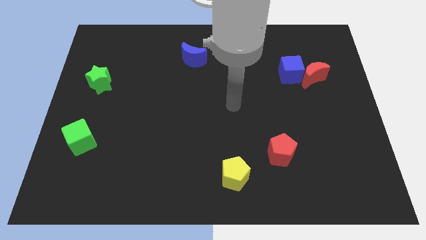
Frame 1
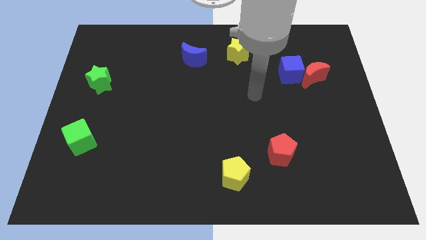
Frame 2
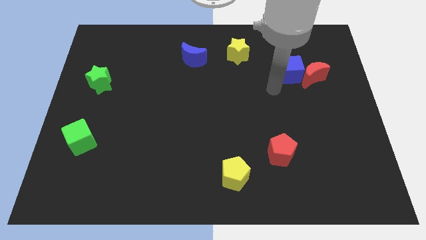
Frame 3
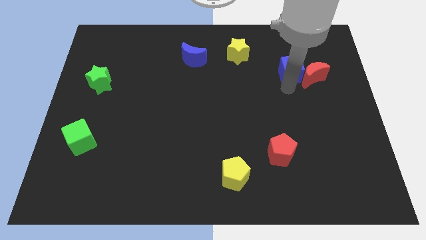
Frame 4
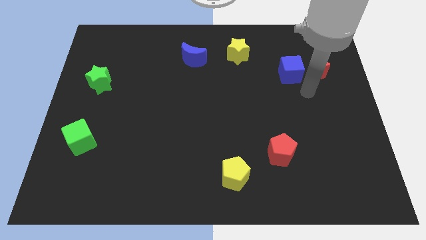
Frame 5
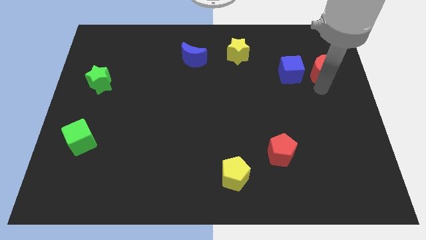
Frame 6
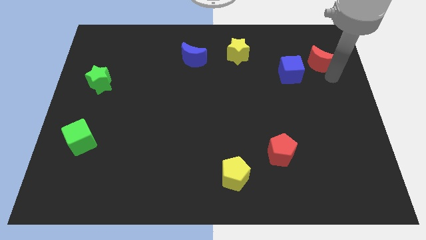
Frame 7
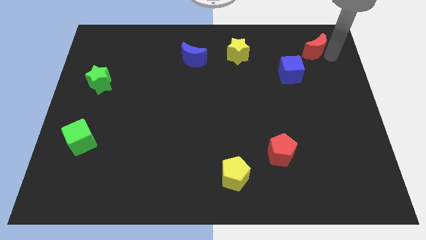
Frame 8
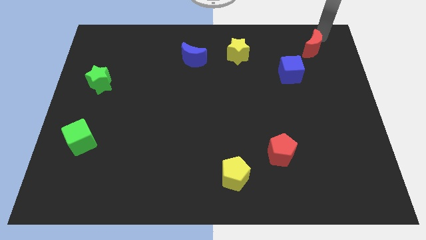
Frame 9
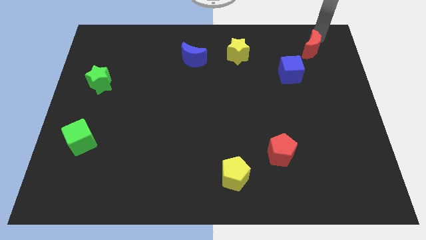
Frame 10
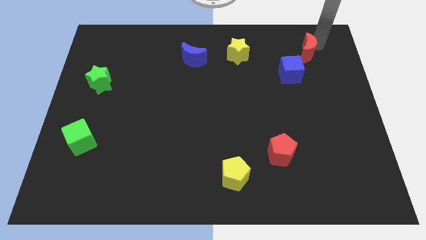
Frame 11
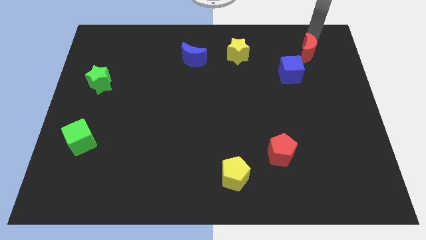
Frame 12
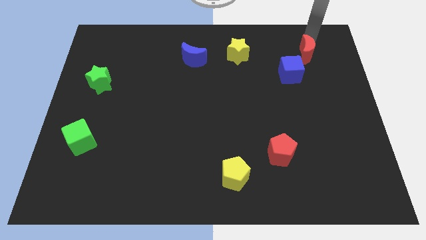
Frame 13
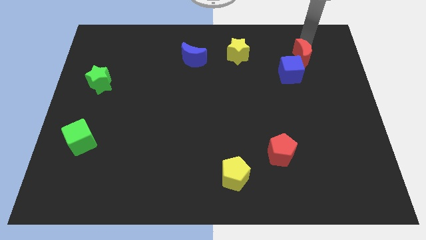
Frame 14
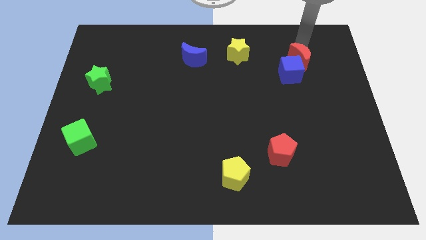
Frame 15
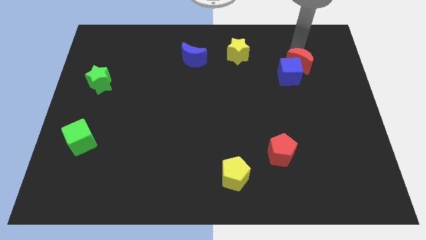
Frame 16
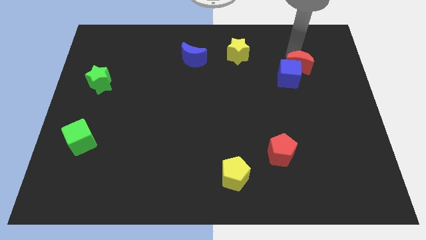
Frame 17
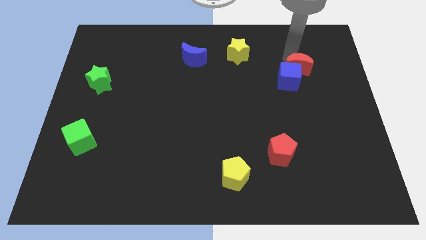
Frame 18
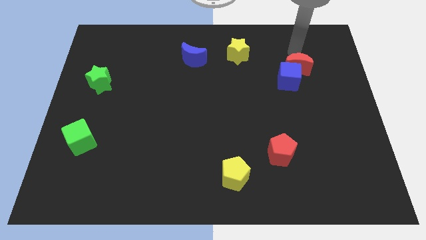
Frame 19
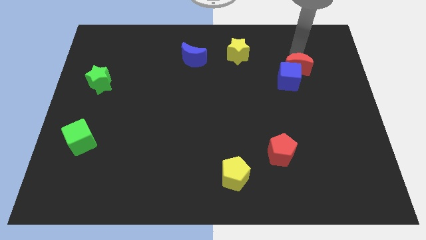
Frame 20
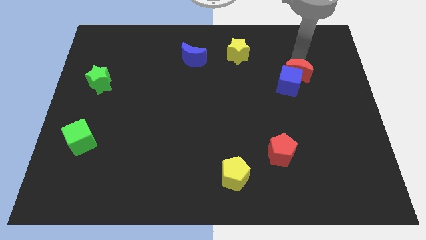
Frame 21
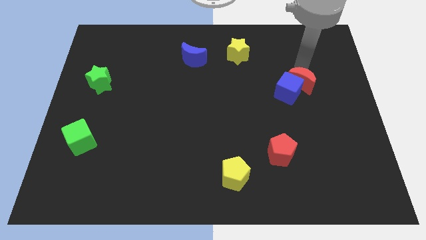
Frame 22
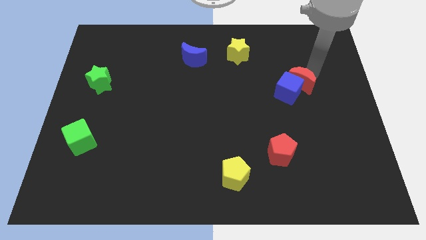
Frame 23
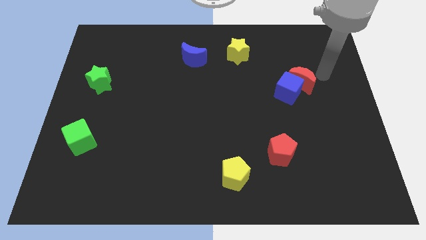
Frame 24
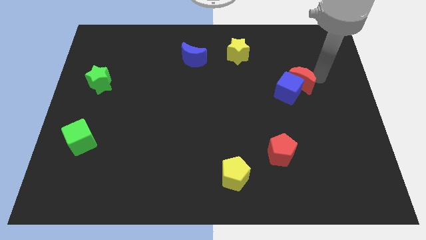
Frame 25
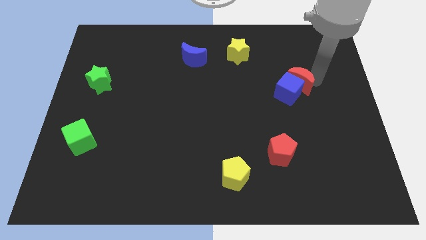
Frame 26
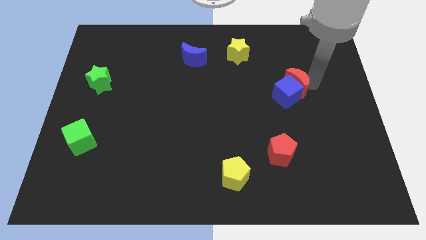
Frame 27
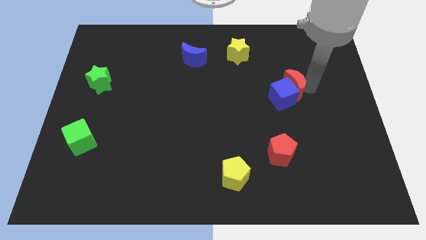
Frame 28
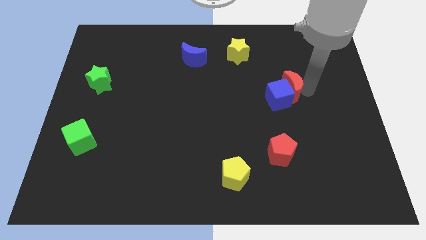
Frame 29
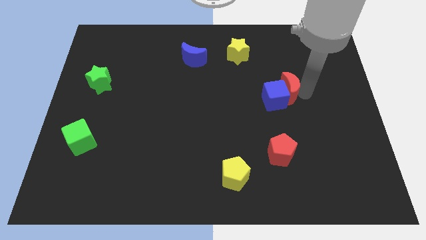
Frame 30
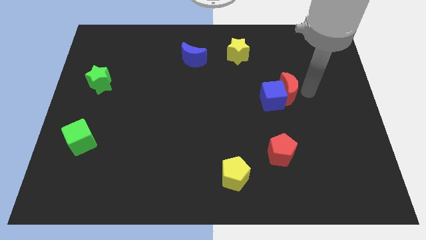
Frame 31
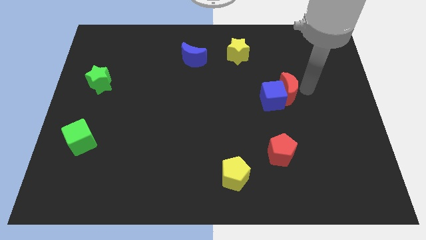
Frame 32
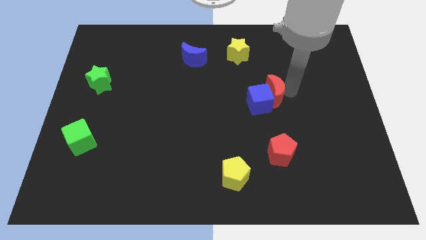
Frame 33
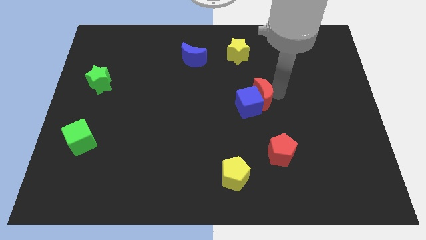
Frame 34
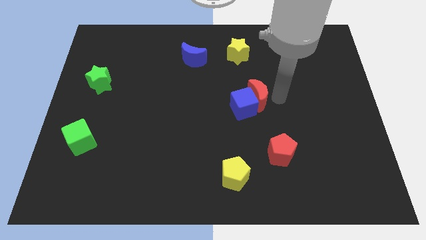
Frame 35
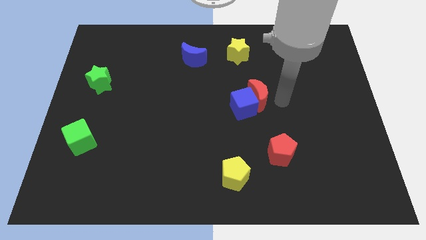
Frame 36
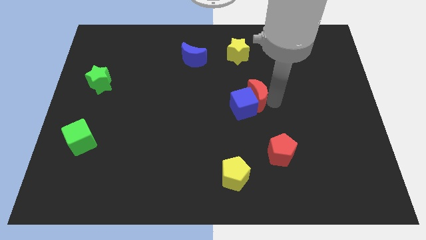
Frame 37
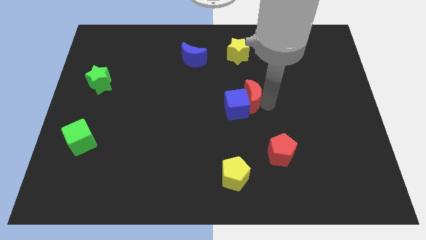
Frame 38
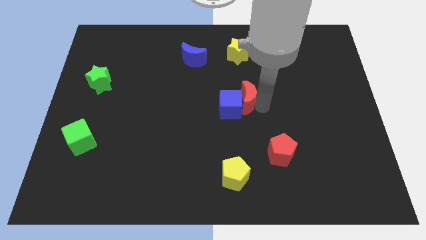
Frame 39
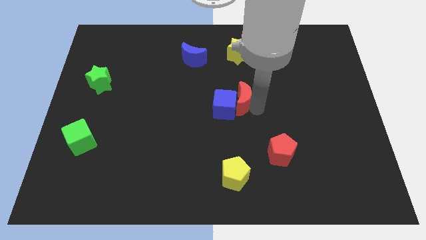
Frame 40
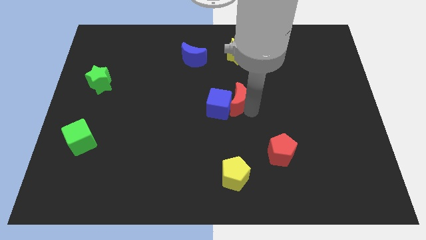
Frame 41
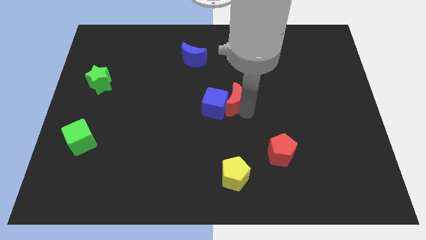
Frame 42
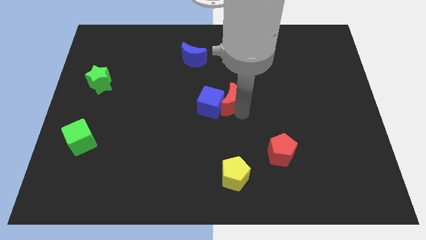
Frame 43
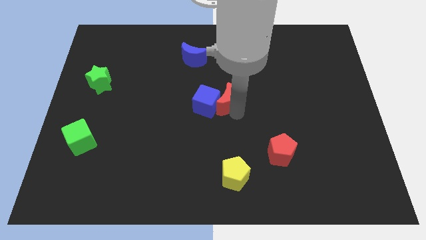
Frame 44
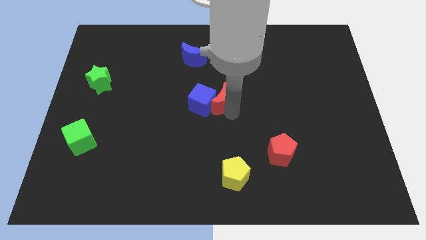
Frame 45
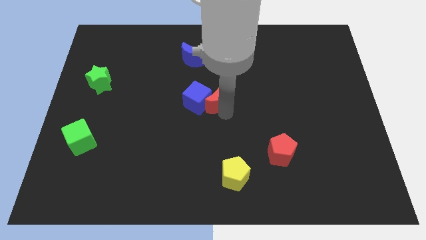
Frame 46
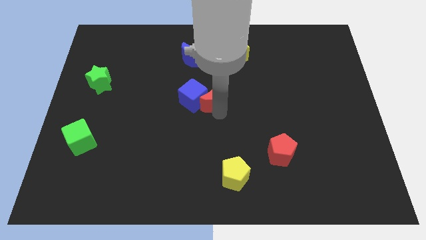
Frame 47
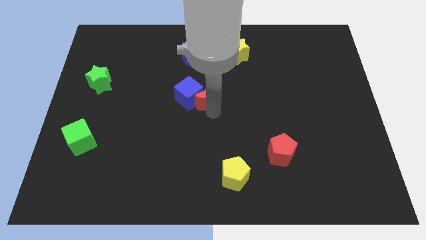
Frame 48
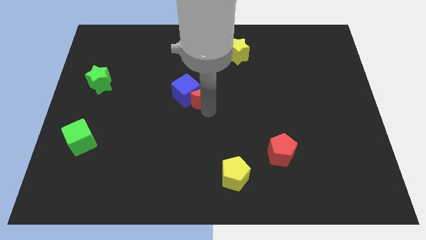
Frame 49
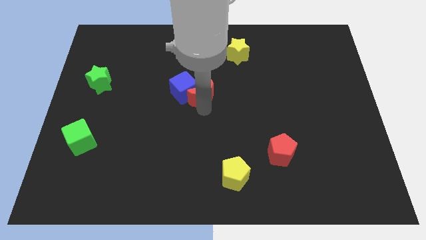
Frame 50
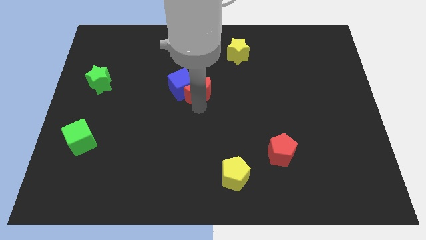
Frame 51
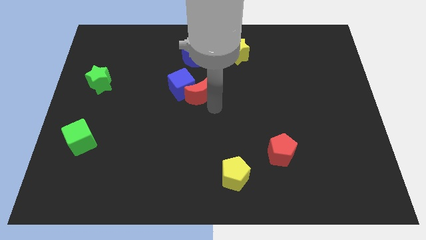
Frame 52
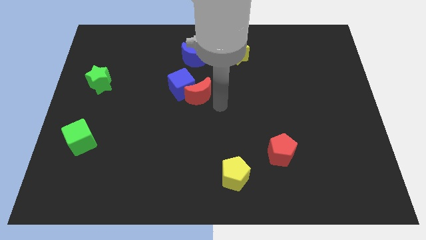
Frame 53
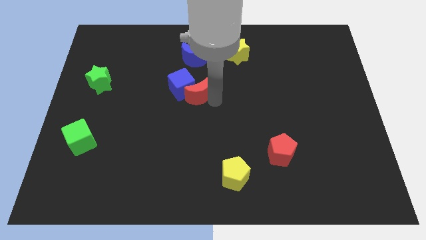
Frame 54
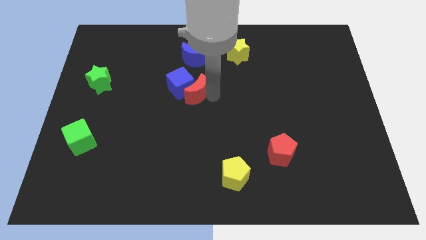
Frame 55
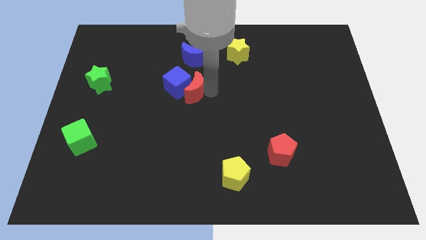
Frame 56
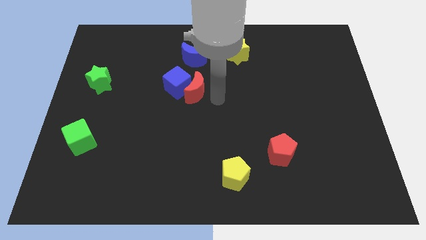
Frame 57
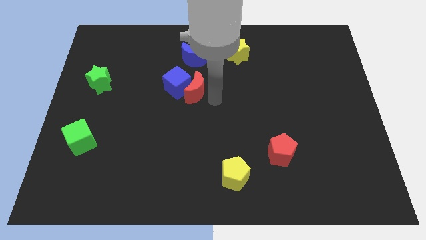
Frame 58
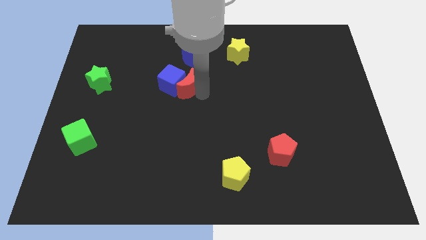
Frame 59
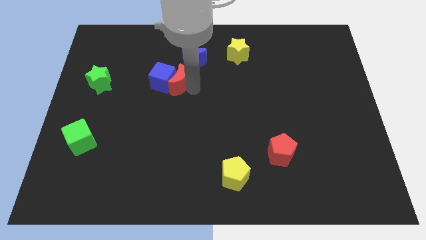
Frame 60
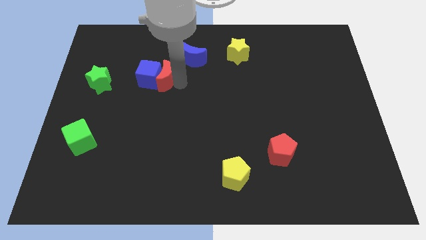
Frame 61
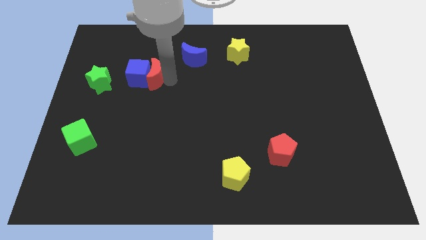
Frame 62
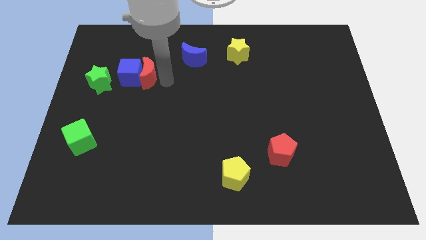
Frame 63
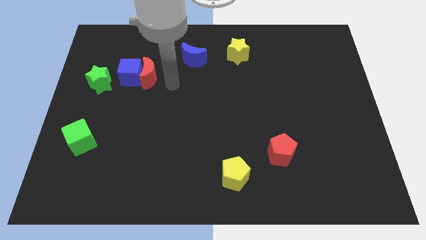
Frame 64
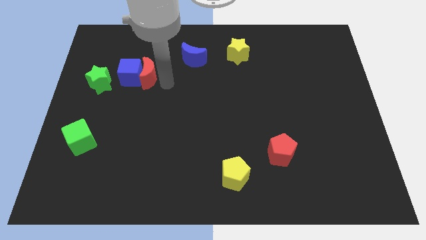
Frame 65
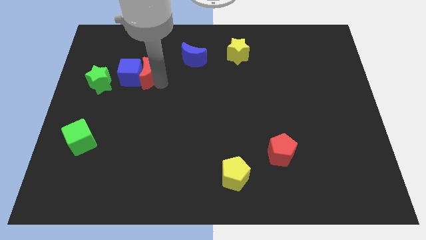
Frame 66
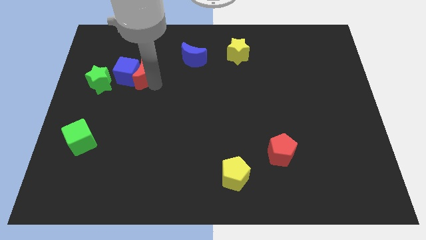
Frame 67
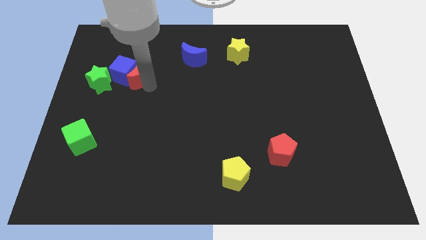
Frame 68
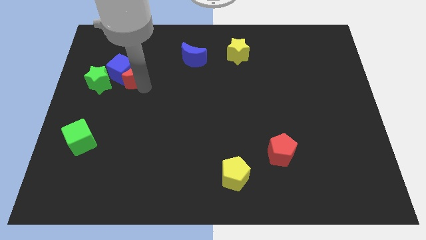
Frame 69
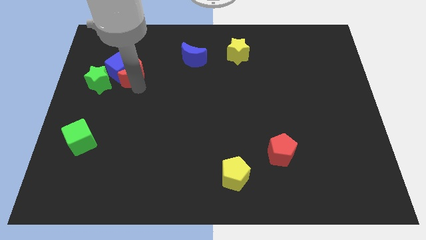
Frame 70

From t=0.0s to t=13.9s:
push the red moon to the top right side of the green star
